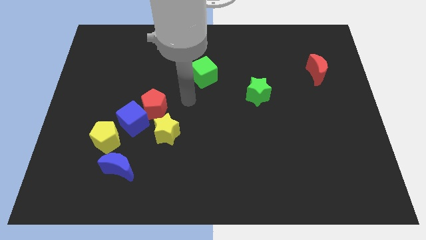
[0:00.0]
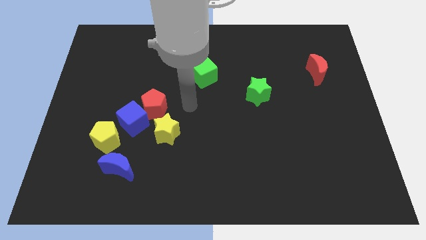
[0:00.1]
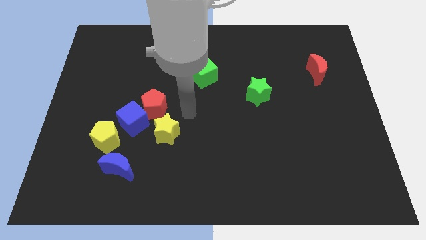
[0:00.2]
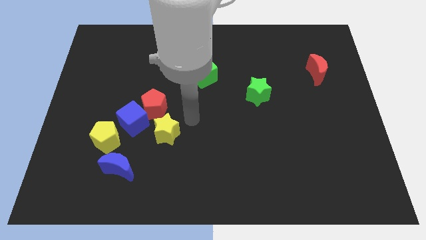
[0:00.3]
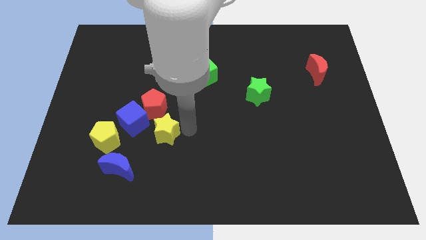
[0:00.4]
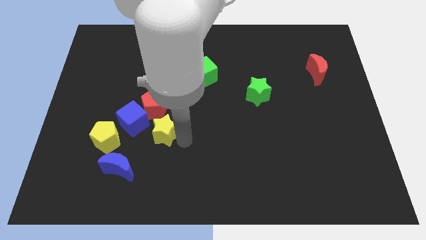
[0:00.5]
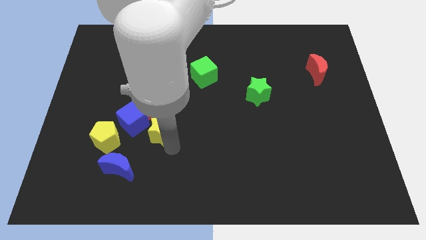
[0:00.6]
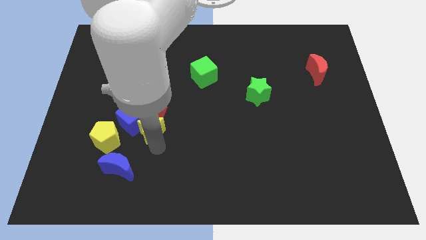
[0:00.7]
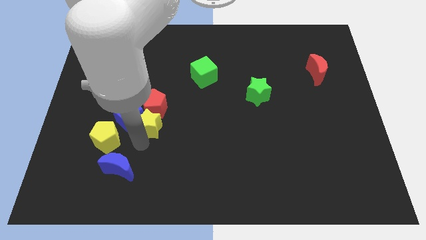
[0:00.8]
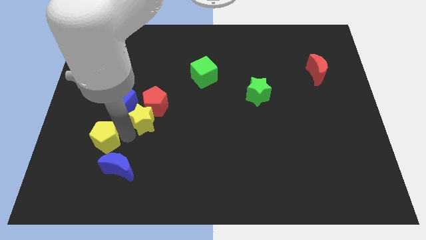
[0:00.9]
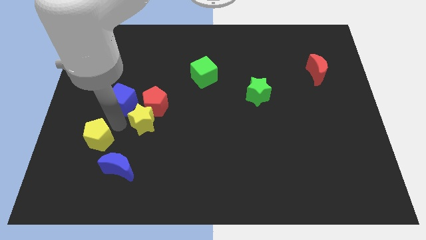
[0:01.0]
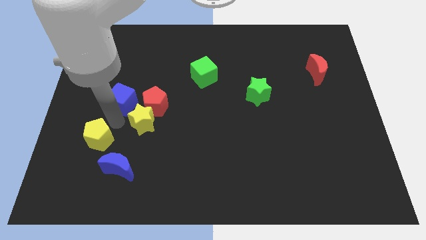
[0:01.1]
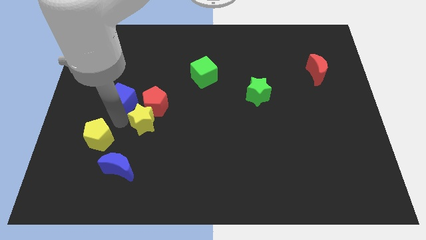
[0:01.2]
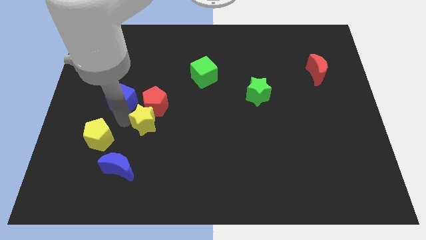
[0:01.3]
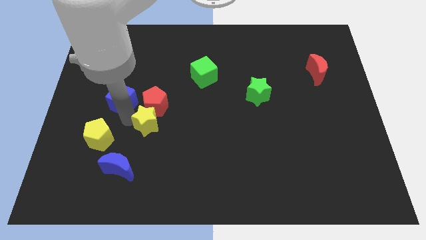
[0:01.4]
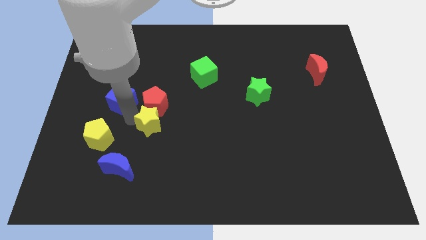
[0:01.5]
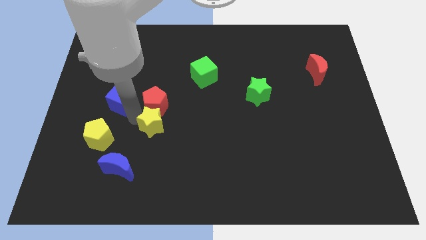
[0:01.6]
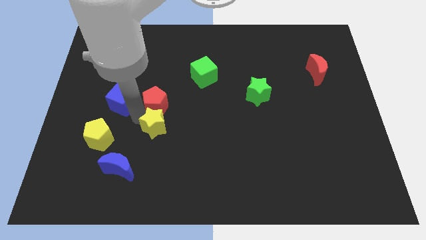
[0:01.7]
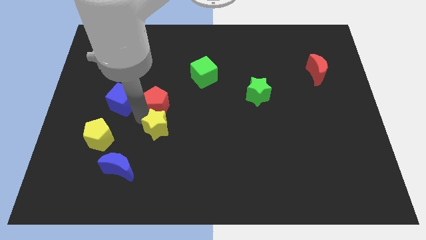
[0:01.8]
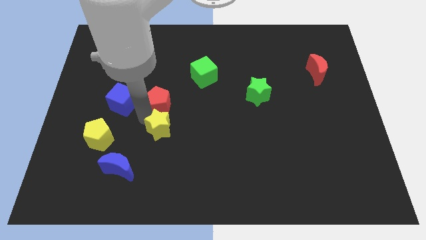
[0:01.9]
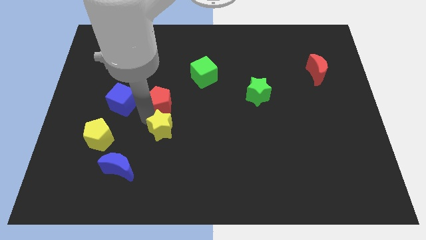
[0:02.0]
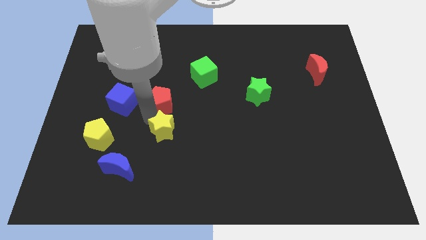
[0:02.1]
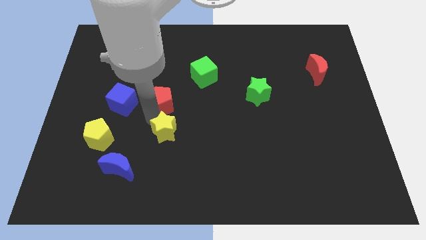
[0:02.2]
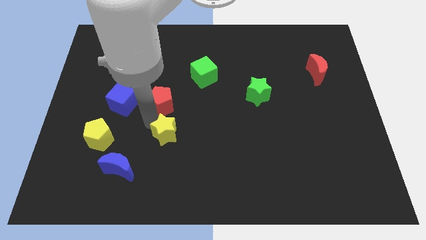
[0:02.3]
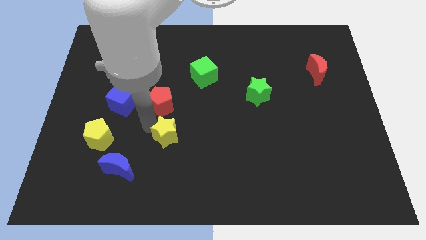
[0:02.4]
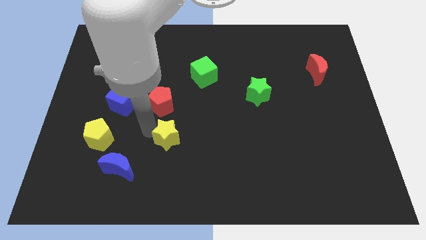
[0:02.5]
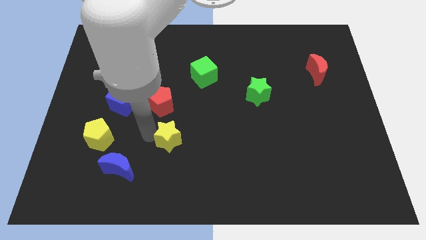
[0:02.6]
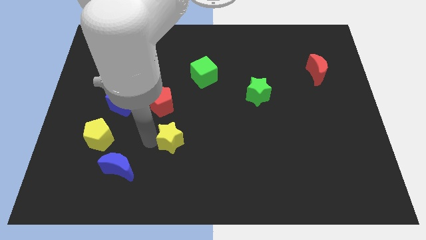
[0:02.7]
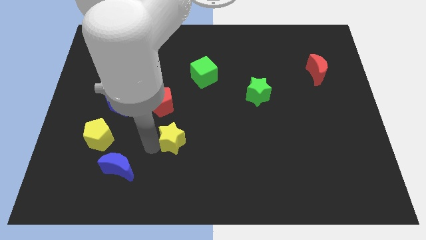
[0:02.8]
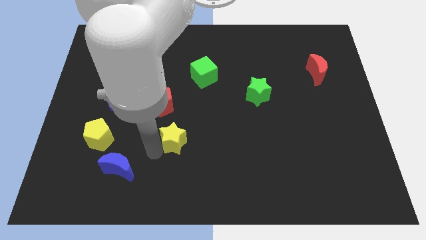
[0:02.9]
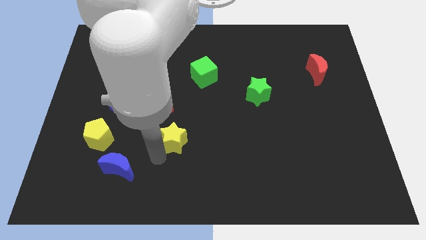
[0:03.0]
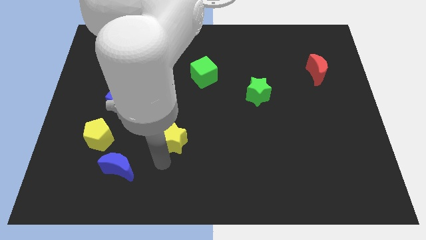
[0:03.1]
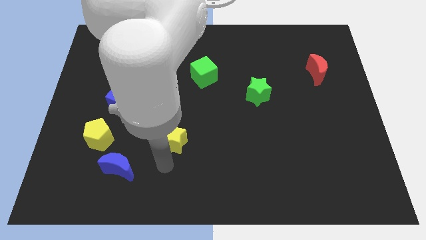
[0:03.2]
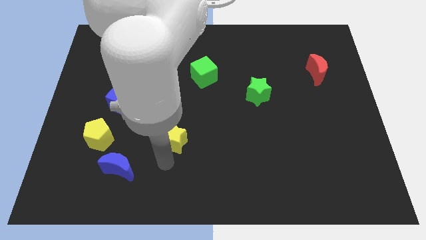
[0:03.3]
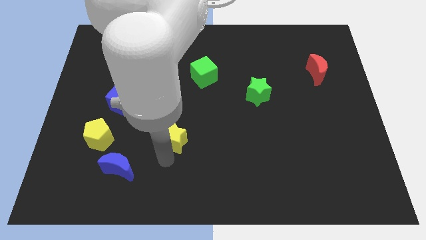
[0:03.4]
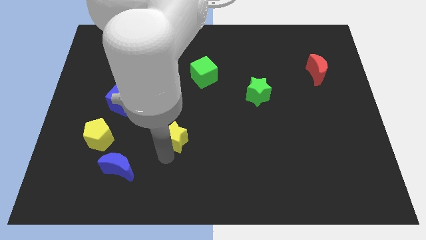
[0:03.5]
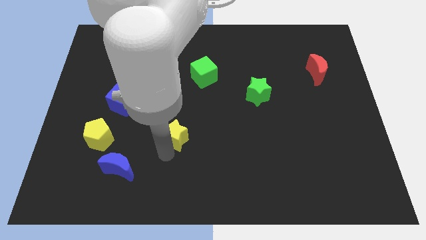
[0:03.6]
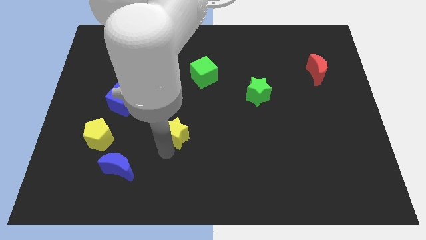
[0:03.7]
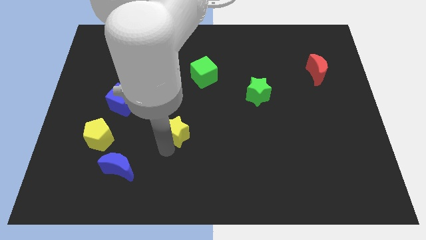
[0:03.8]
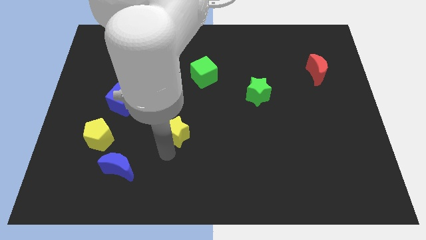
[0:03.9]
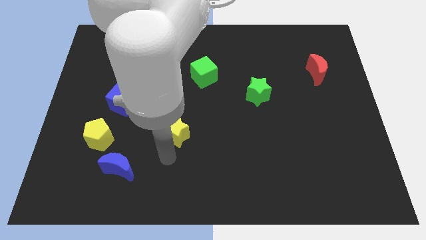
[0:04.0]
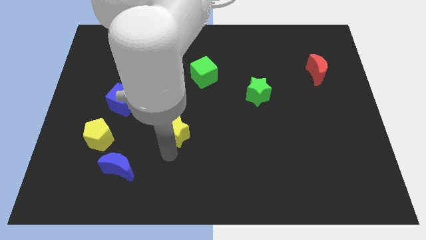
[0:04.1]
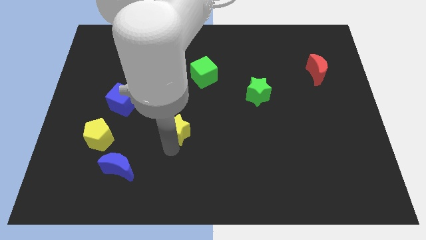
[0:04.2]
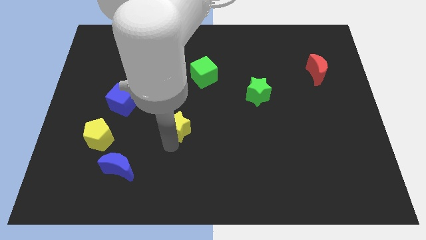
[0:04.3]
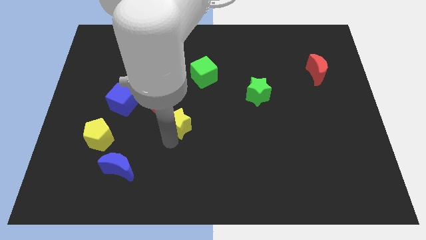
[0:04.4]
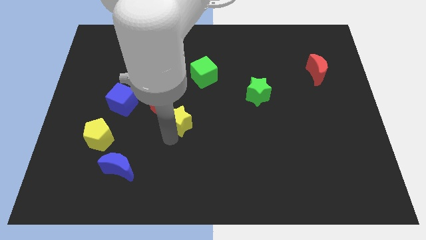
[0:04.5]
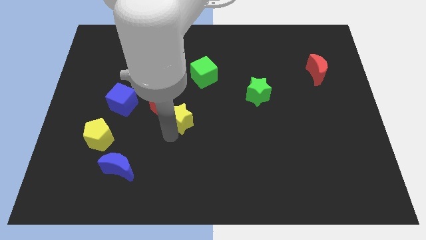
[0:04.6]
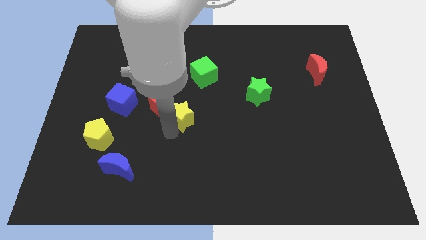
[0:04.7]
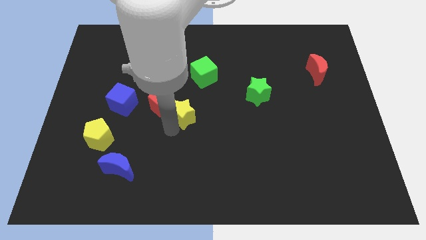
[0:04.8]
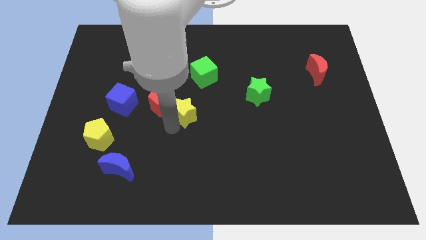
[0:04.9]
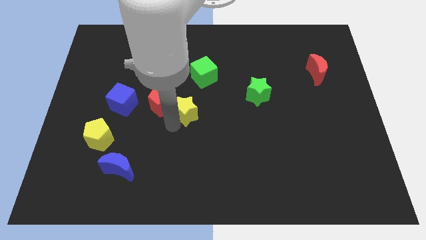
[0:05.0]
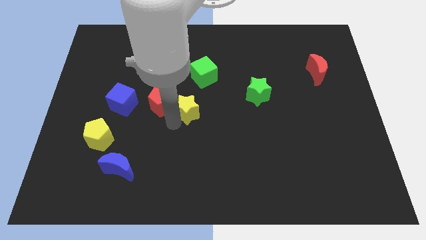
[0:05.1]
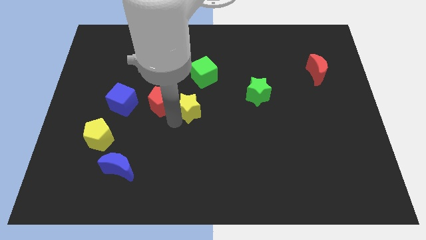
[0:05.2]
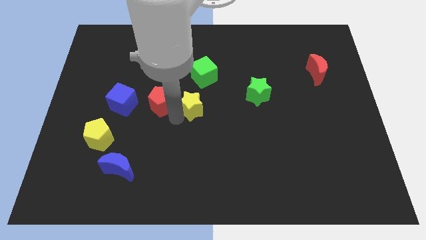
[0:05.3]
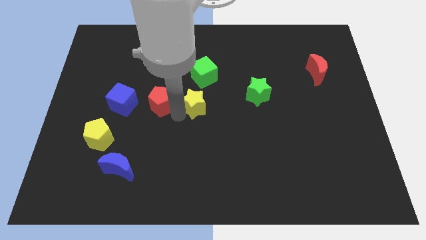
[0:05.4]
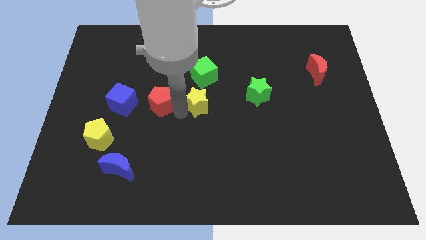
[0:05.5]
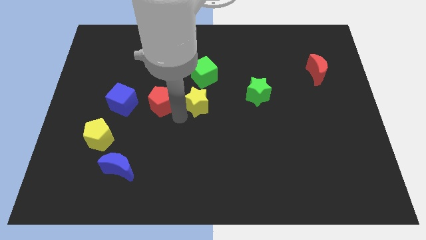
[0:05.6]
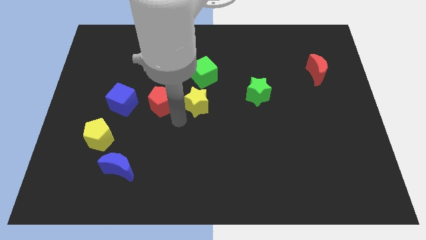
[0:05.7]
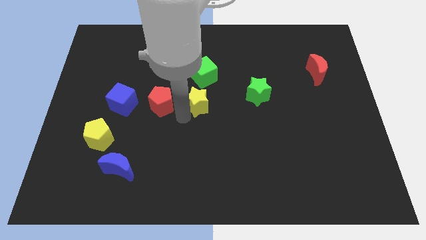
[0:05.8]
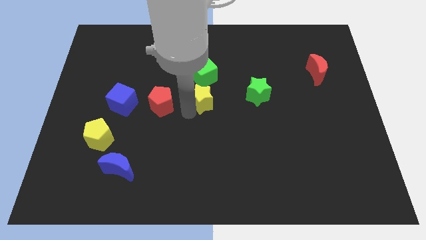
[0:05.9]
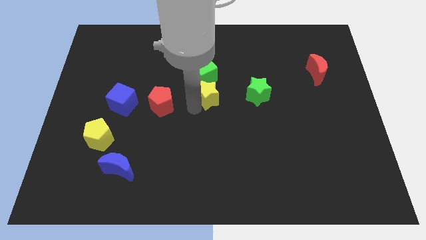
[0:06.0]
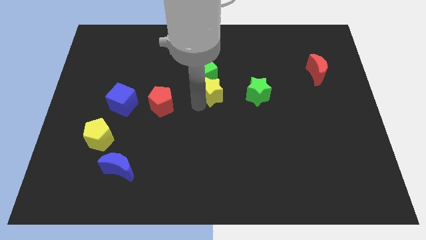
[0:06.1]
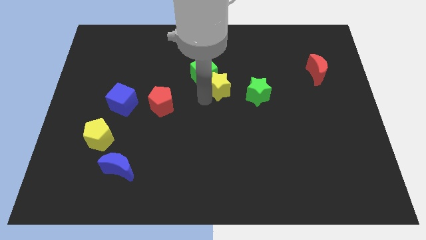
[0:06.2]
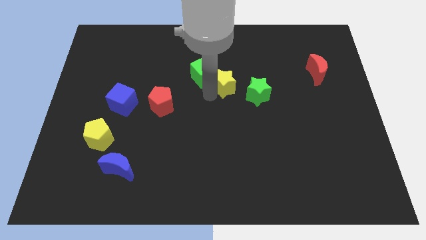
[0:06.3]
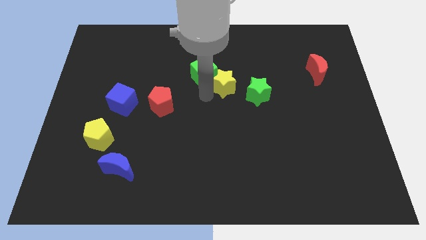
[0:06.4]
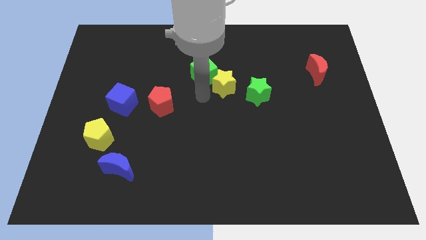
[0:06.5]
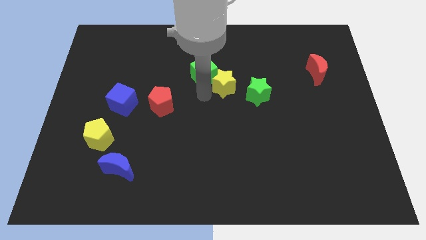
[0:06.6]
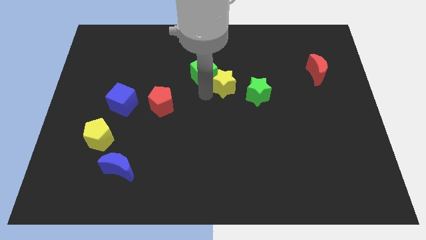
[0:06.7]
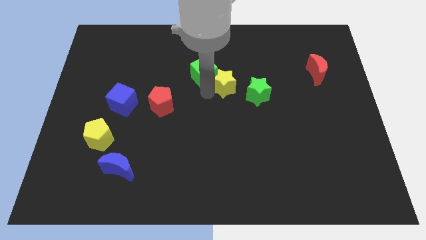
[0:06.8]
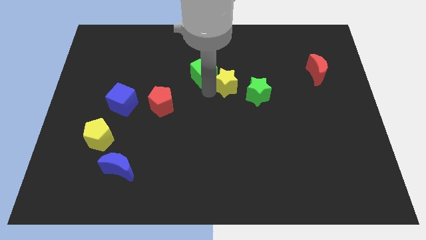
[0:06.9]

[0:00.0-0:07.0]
move the yellow star upwards and to the right

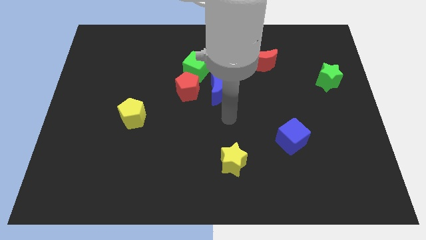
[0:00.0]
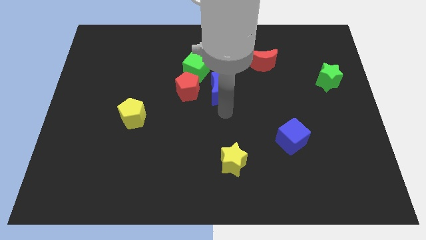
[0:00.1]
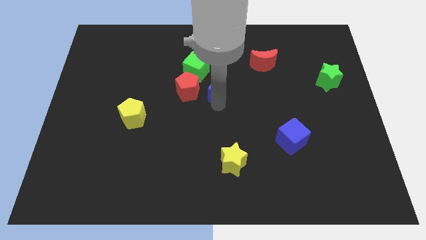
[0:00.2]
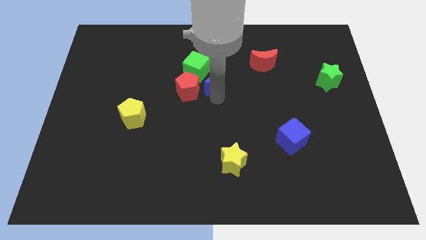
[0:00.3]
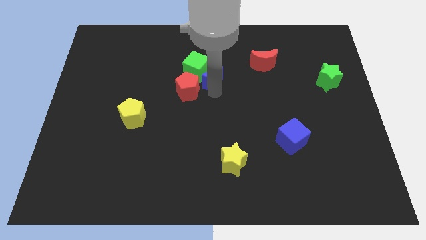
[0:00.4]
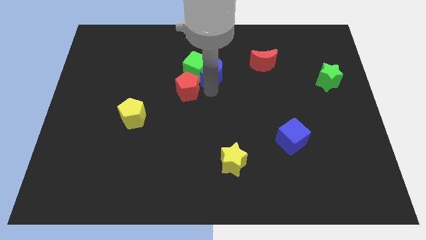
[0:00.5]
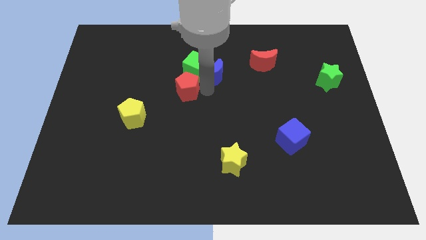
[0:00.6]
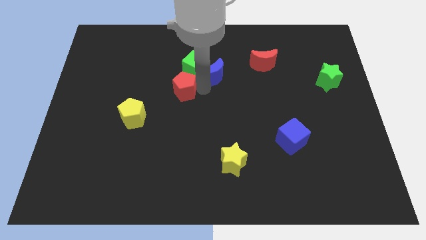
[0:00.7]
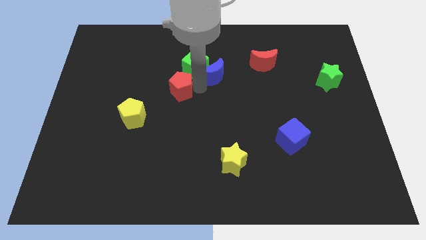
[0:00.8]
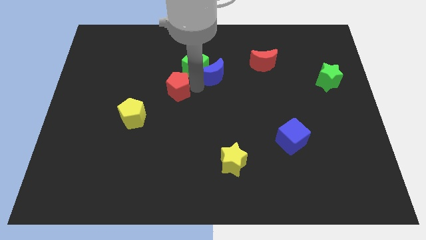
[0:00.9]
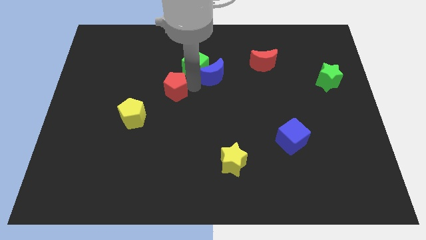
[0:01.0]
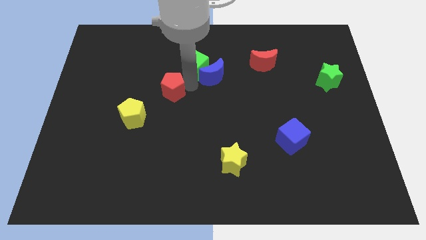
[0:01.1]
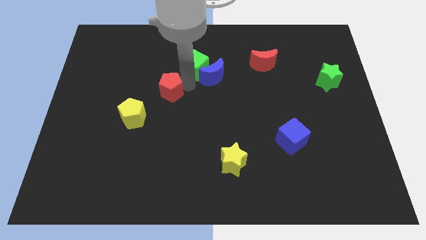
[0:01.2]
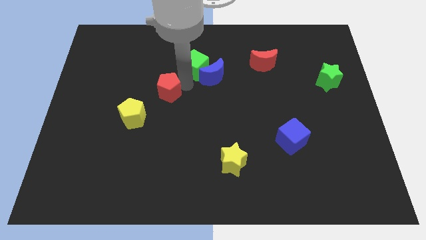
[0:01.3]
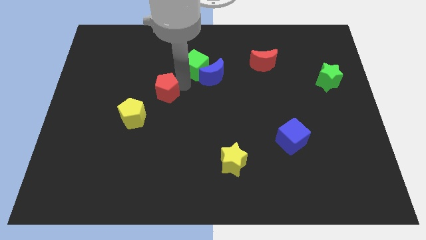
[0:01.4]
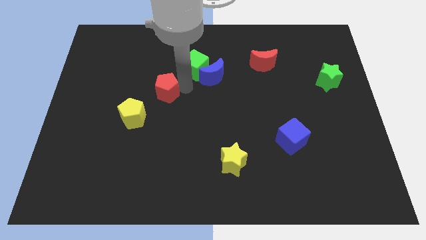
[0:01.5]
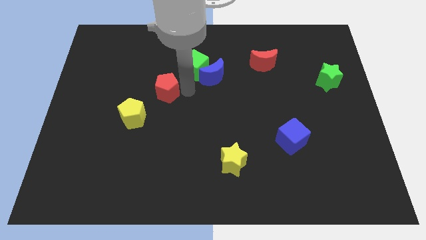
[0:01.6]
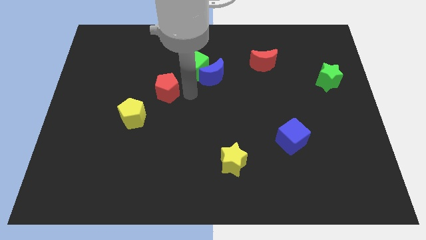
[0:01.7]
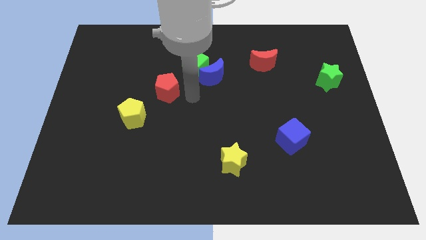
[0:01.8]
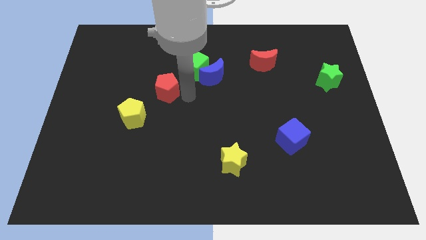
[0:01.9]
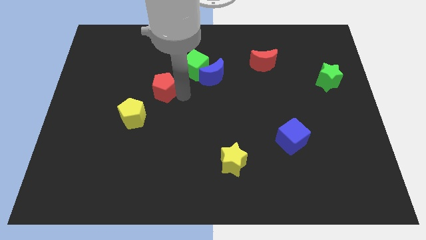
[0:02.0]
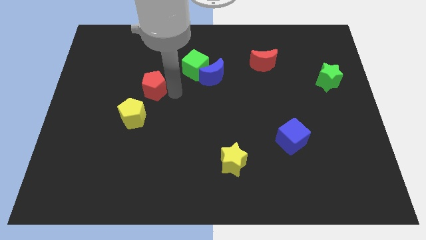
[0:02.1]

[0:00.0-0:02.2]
push the red pentagon slightly left
